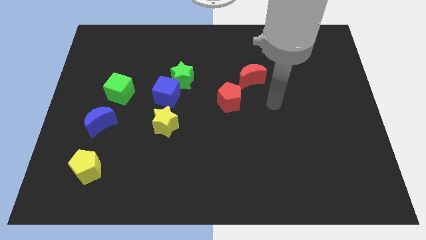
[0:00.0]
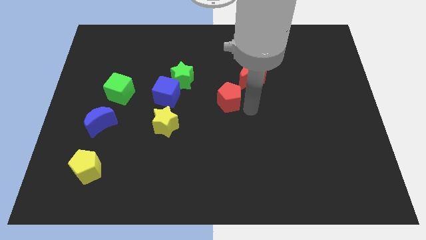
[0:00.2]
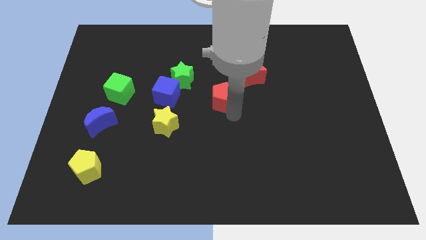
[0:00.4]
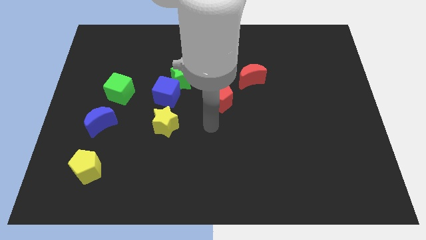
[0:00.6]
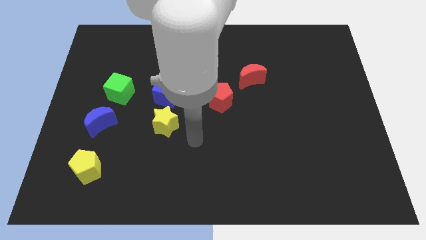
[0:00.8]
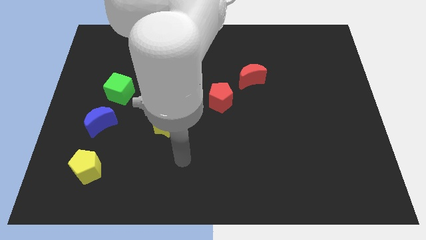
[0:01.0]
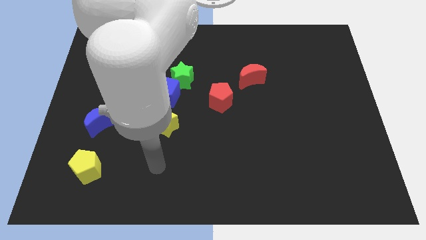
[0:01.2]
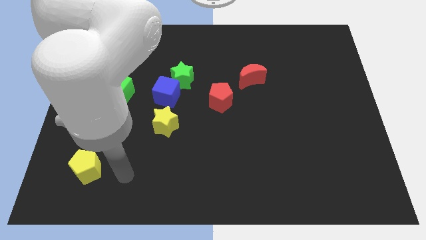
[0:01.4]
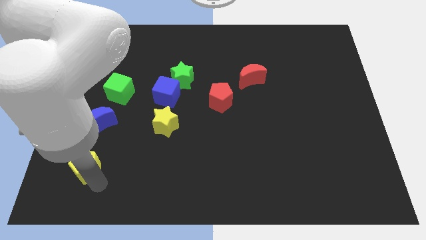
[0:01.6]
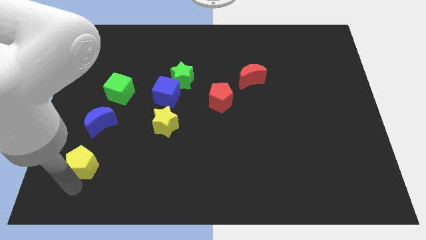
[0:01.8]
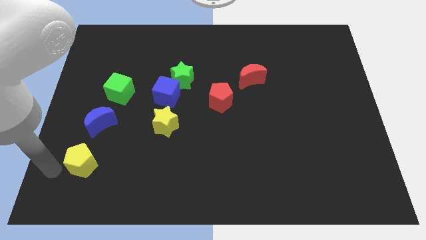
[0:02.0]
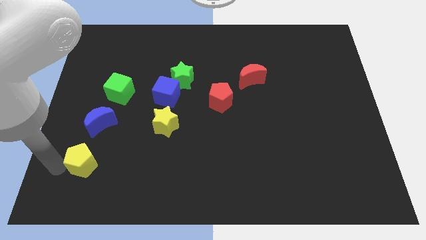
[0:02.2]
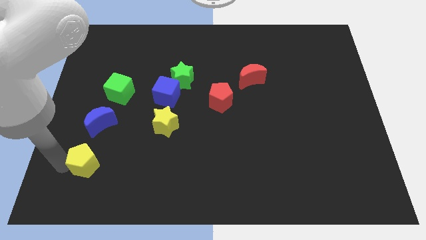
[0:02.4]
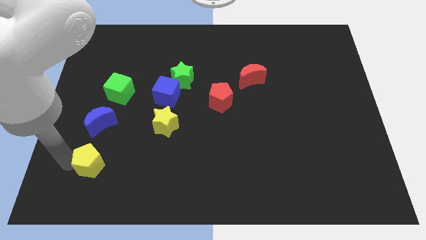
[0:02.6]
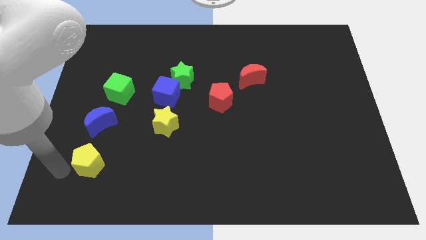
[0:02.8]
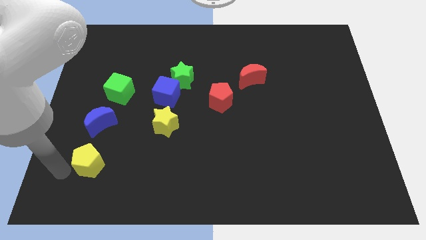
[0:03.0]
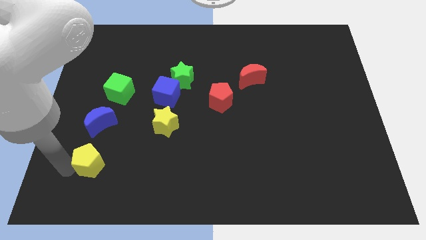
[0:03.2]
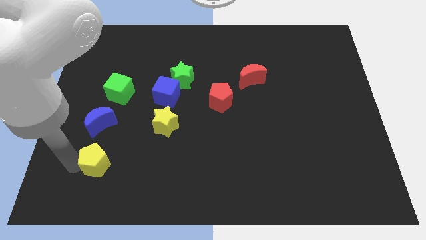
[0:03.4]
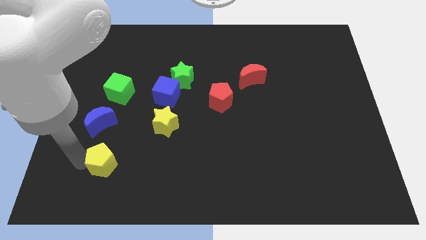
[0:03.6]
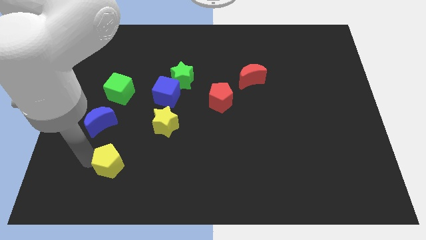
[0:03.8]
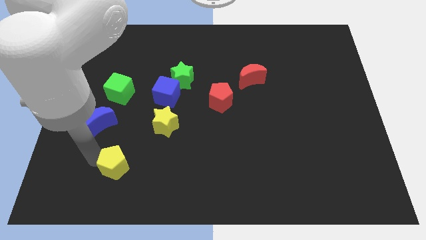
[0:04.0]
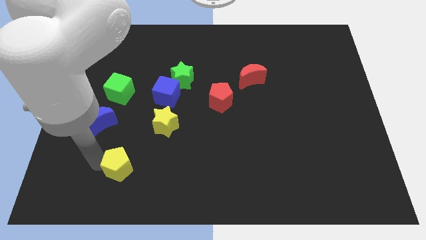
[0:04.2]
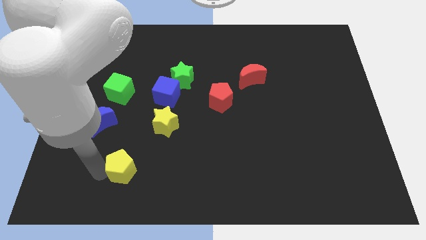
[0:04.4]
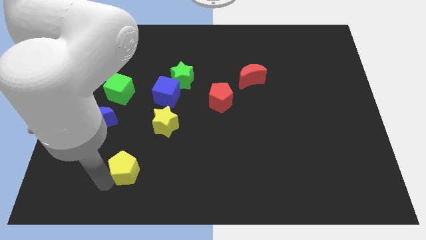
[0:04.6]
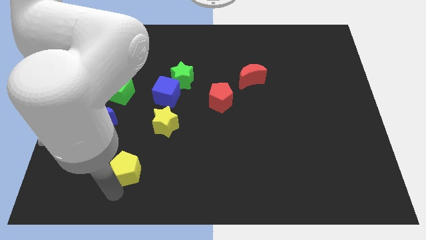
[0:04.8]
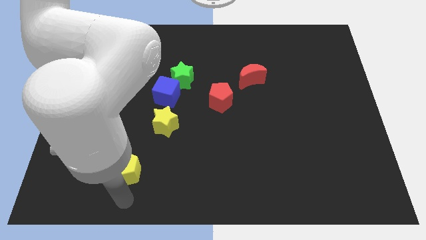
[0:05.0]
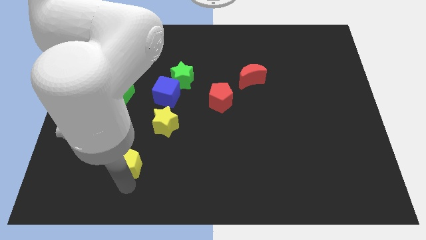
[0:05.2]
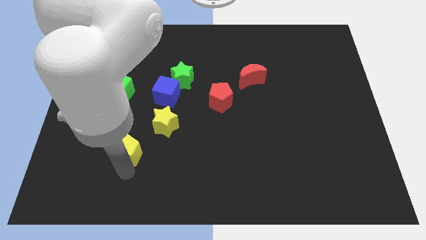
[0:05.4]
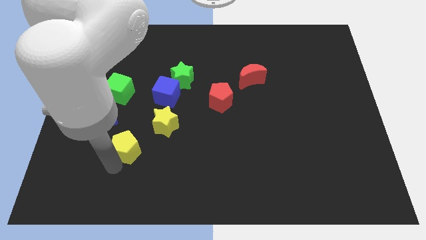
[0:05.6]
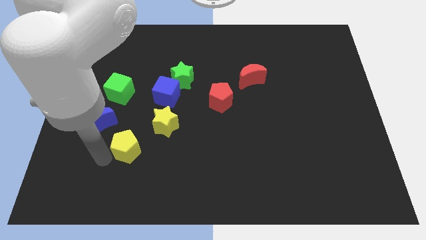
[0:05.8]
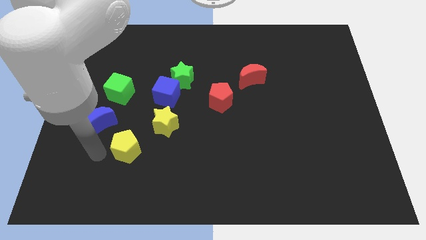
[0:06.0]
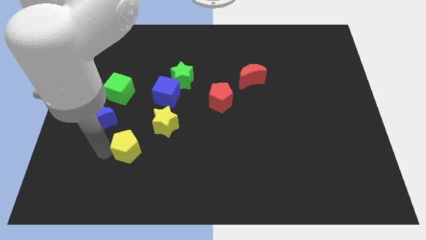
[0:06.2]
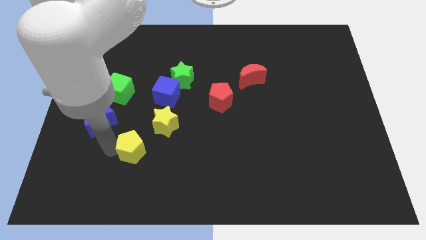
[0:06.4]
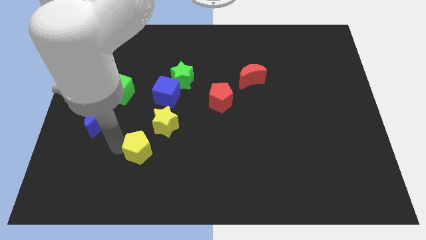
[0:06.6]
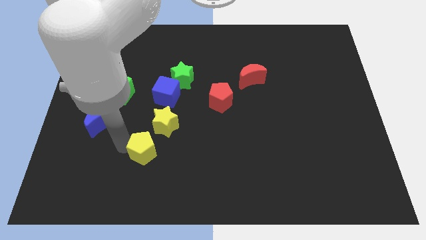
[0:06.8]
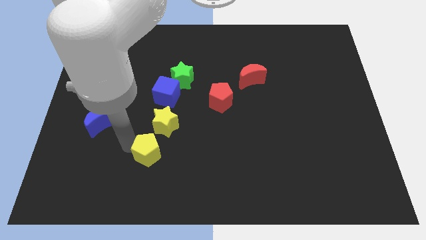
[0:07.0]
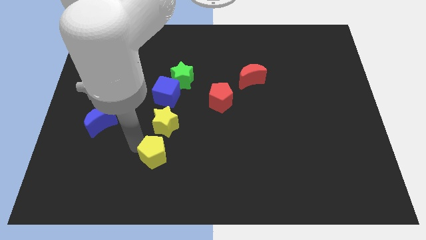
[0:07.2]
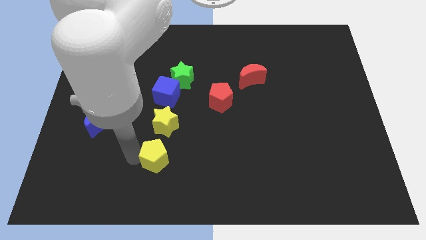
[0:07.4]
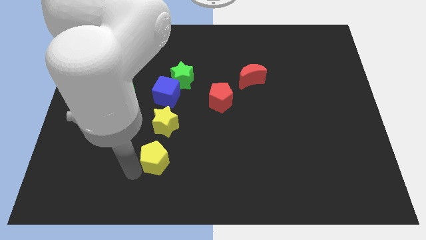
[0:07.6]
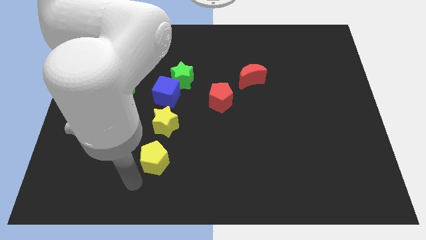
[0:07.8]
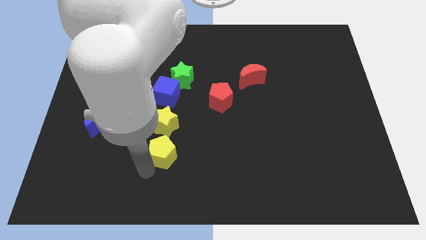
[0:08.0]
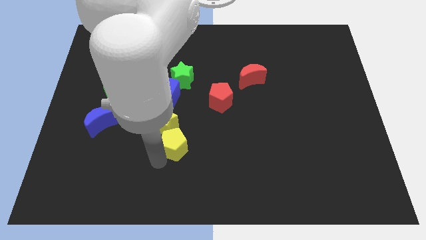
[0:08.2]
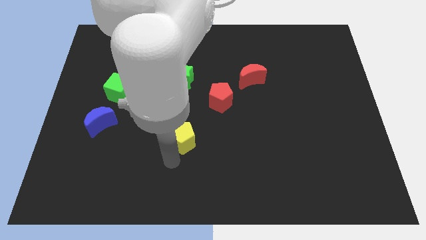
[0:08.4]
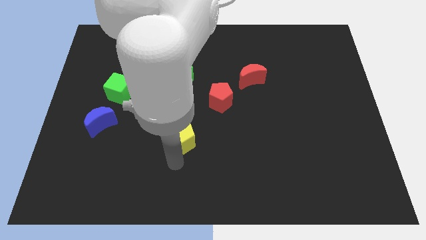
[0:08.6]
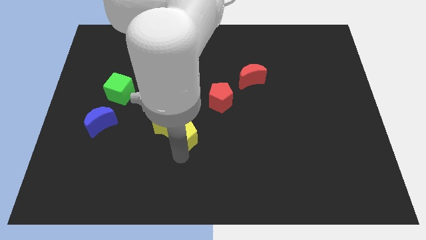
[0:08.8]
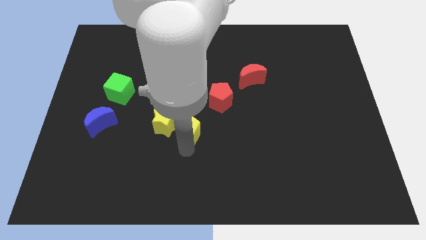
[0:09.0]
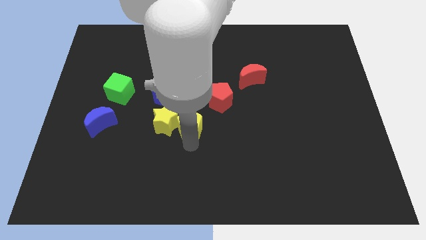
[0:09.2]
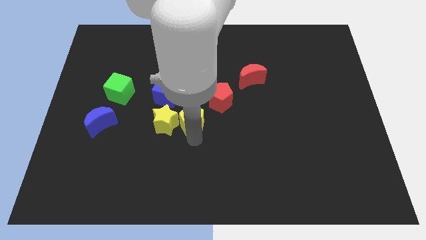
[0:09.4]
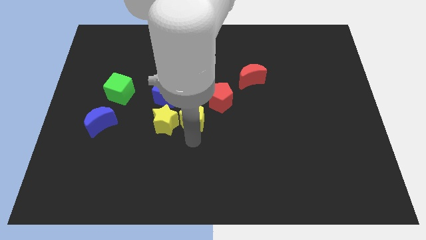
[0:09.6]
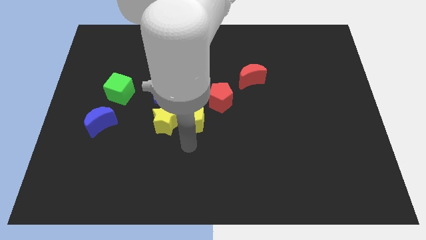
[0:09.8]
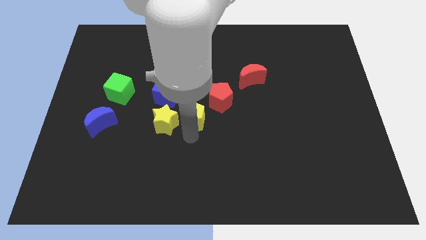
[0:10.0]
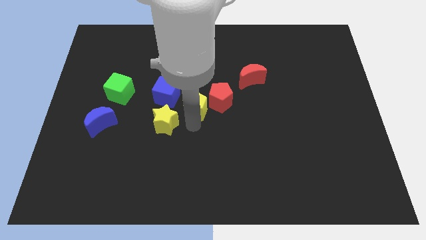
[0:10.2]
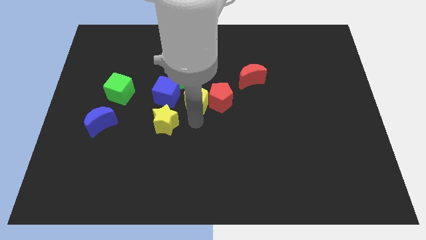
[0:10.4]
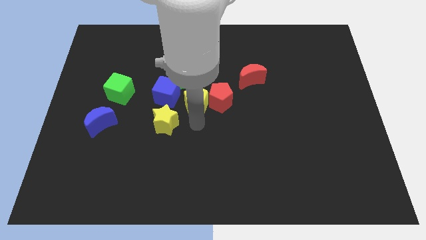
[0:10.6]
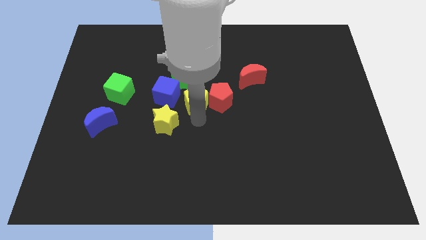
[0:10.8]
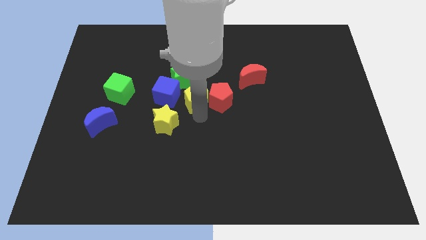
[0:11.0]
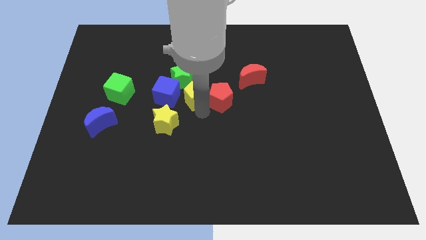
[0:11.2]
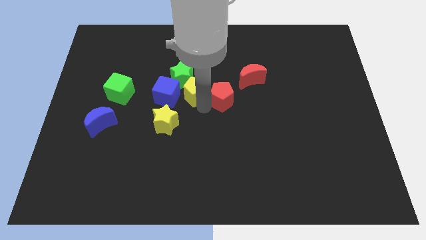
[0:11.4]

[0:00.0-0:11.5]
push the yellow pentagon diagonally up and to the right of the blue cube

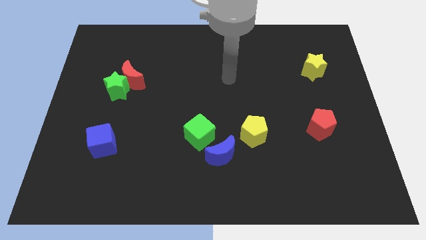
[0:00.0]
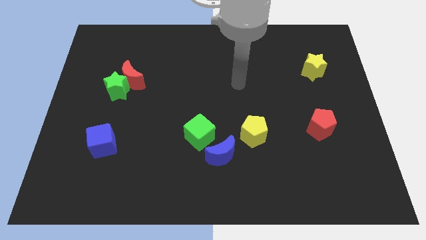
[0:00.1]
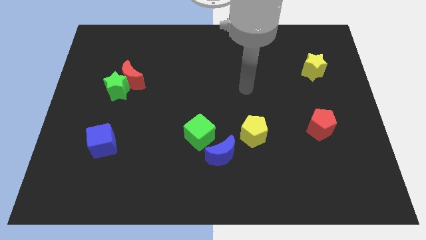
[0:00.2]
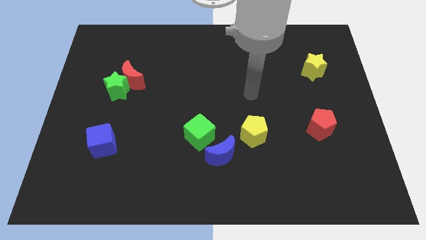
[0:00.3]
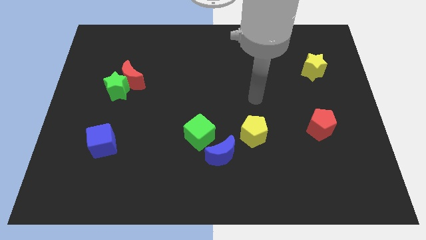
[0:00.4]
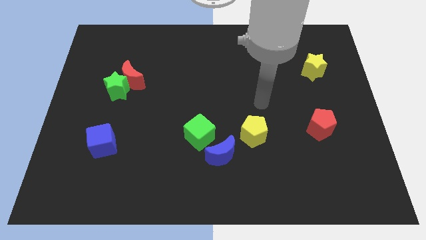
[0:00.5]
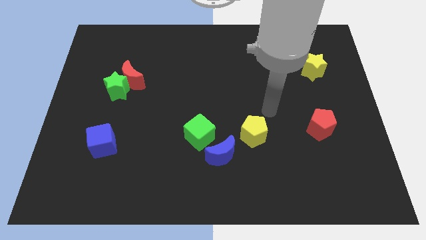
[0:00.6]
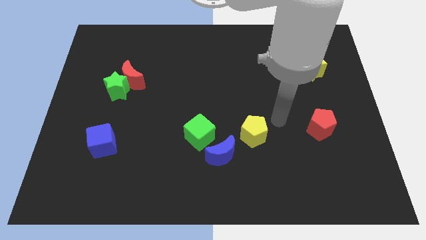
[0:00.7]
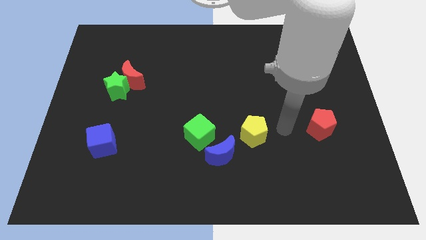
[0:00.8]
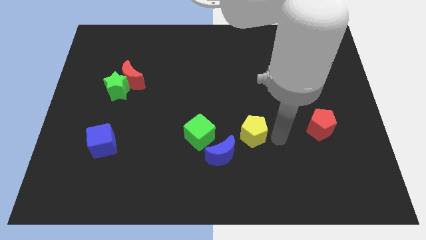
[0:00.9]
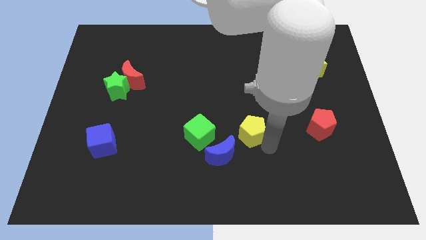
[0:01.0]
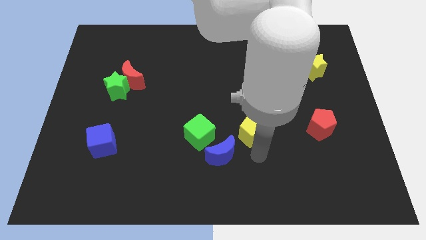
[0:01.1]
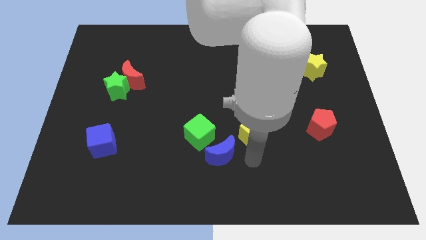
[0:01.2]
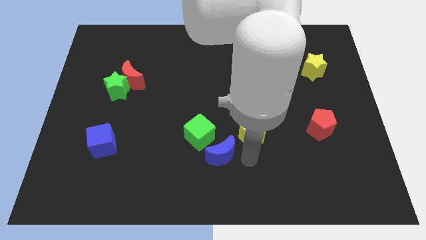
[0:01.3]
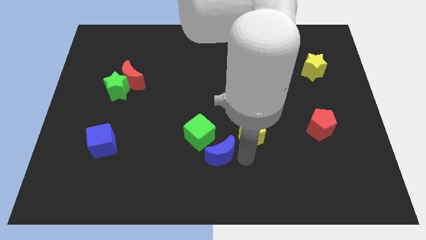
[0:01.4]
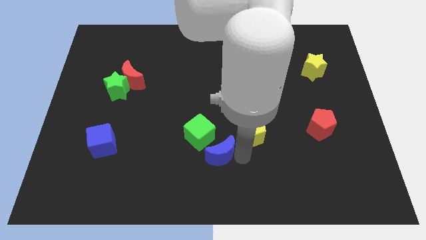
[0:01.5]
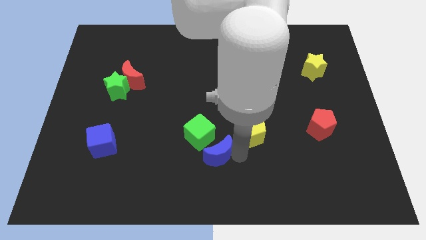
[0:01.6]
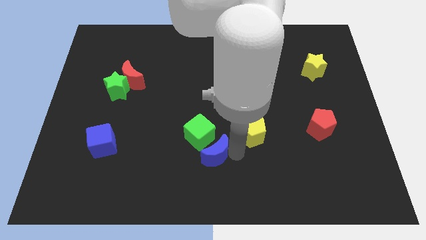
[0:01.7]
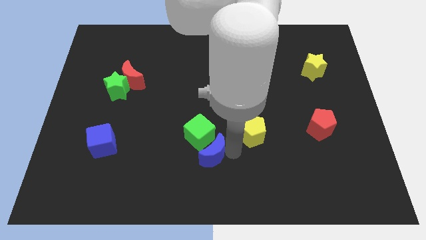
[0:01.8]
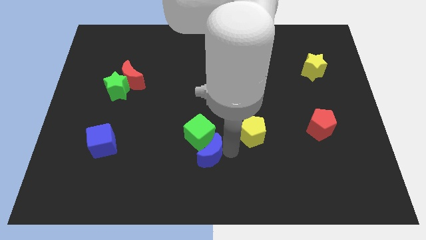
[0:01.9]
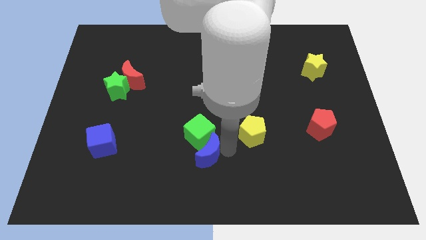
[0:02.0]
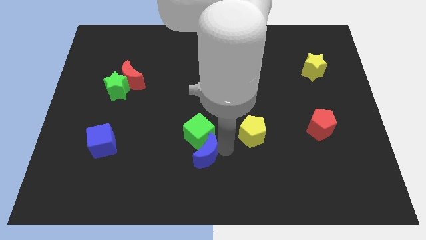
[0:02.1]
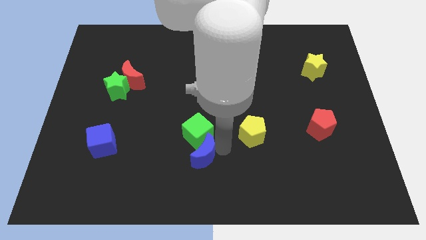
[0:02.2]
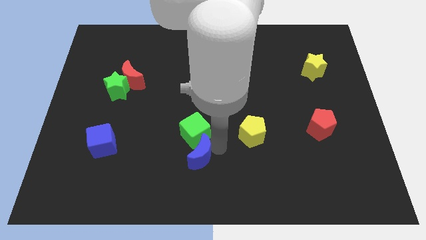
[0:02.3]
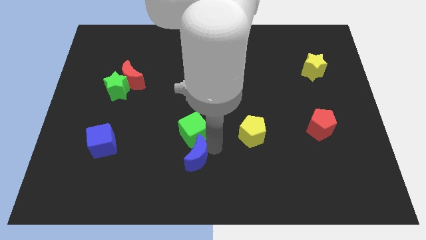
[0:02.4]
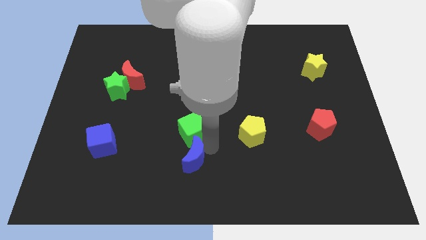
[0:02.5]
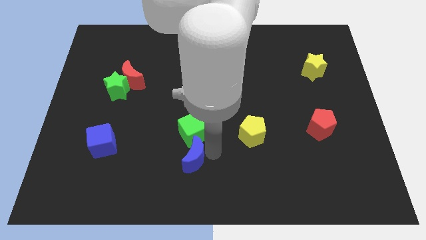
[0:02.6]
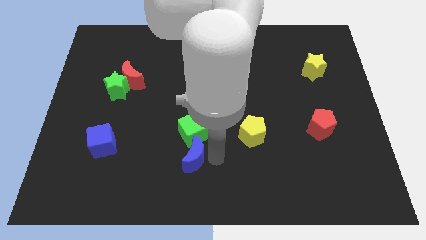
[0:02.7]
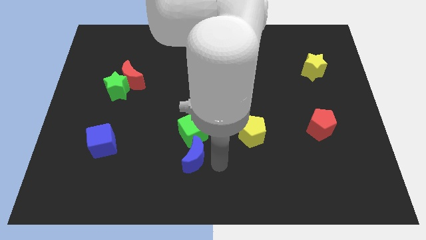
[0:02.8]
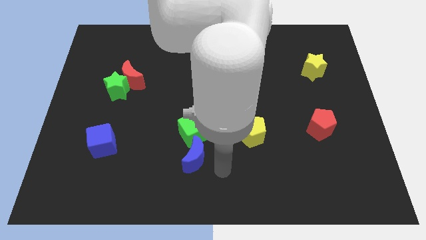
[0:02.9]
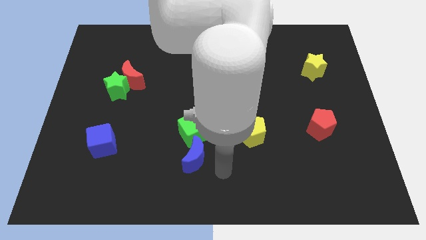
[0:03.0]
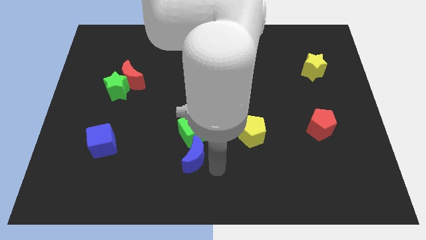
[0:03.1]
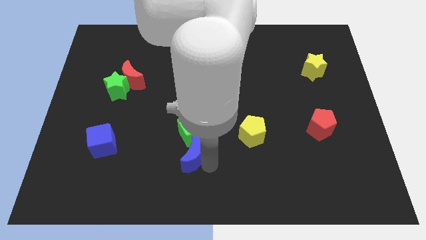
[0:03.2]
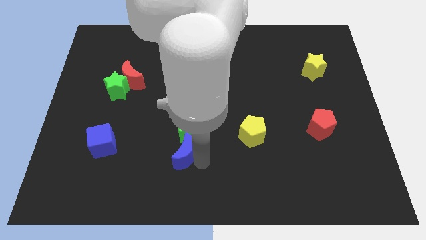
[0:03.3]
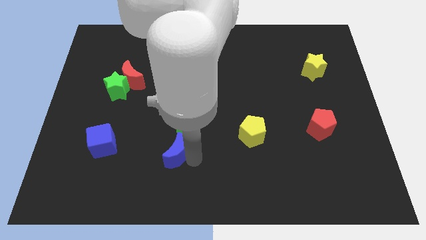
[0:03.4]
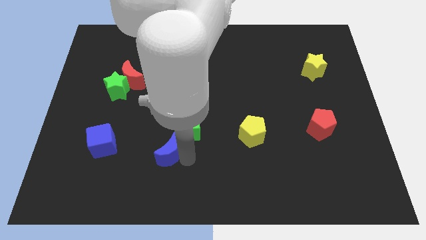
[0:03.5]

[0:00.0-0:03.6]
put the blue moon to the right of the blue cube
